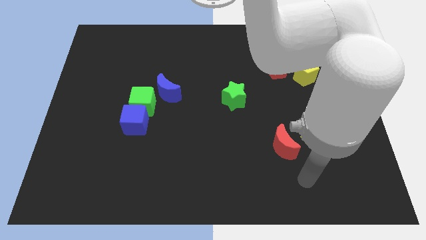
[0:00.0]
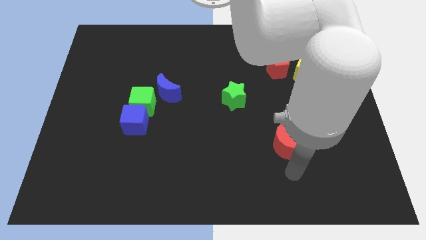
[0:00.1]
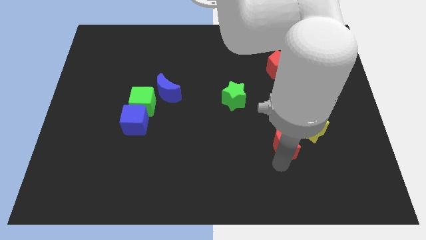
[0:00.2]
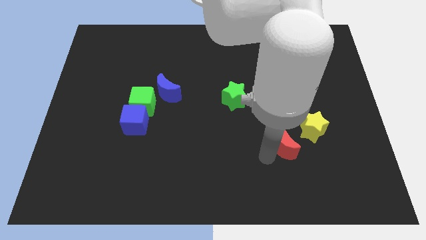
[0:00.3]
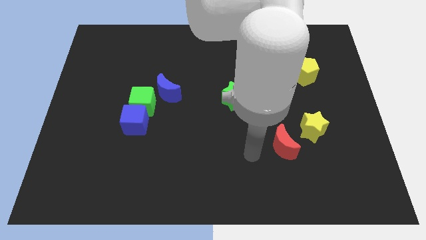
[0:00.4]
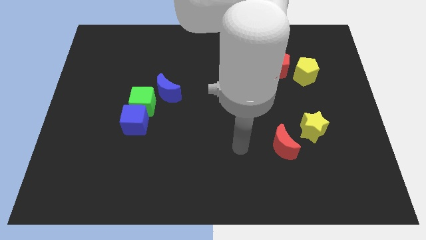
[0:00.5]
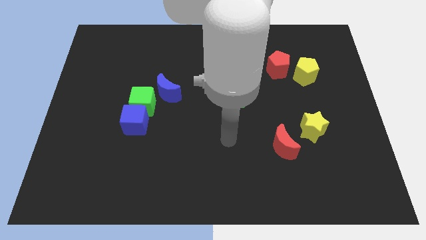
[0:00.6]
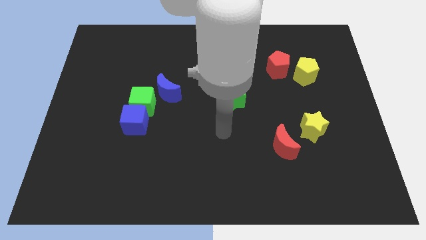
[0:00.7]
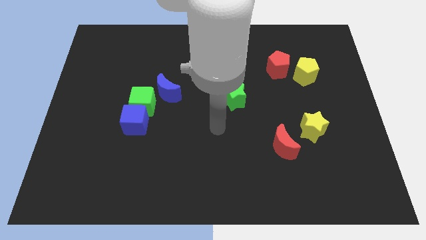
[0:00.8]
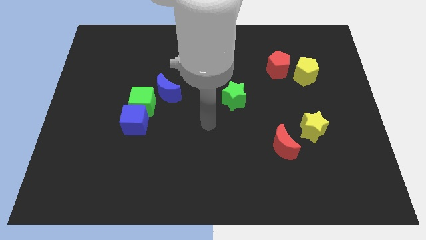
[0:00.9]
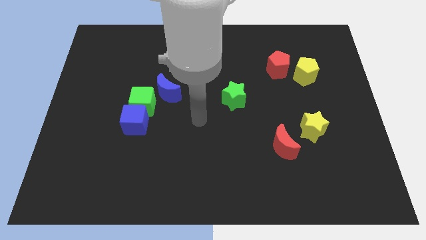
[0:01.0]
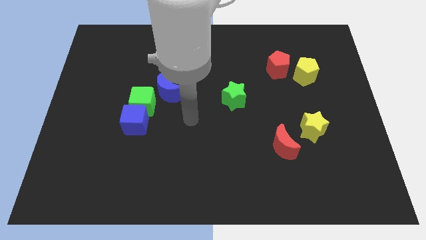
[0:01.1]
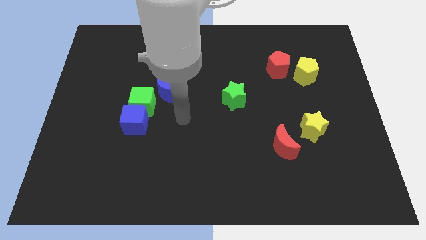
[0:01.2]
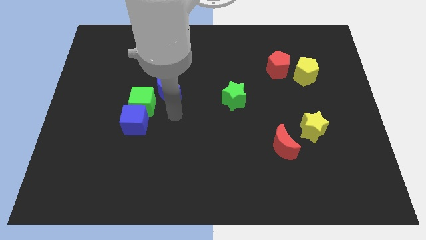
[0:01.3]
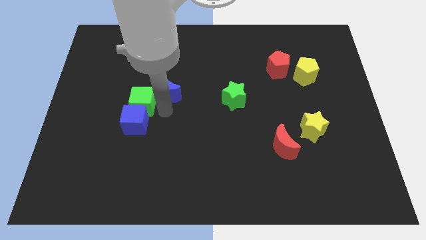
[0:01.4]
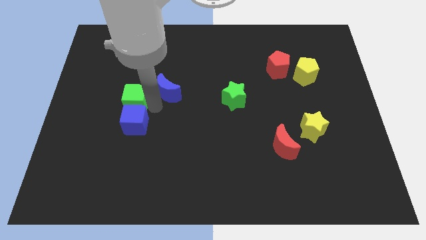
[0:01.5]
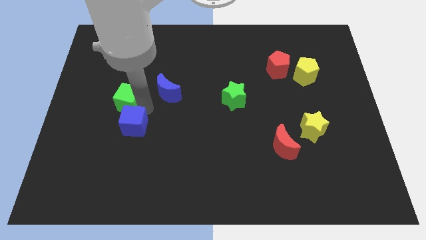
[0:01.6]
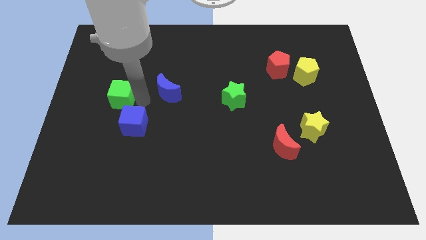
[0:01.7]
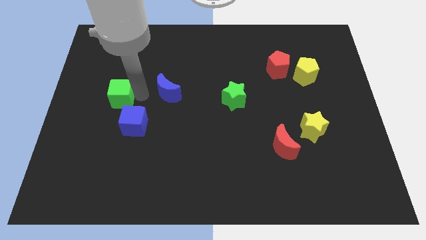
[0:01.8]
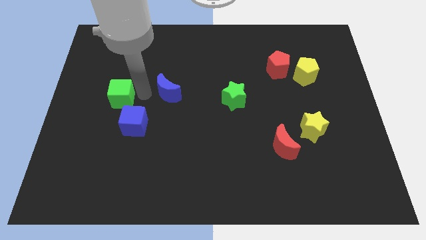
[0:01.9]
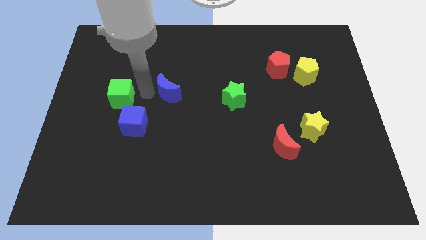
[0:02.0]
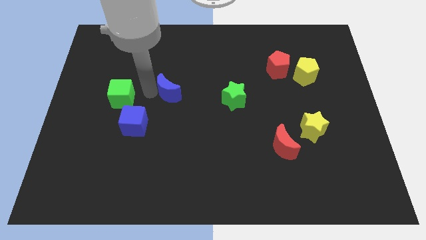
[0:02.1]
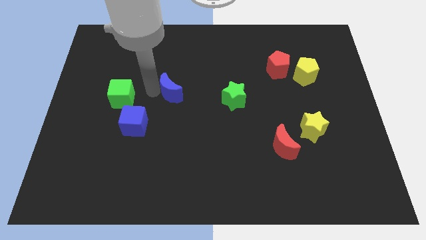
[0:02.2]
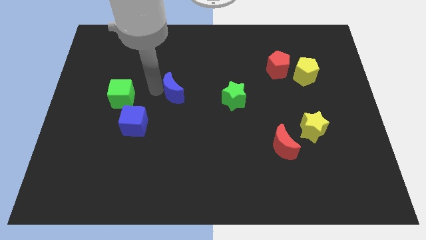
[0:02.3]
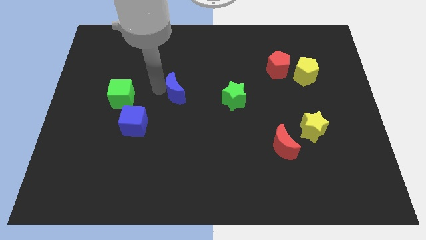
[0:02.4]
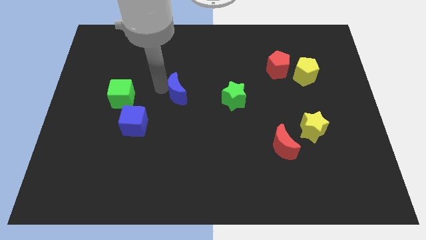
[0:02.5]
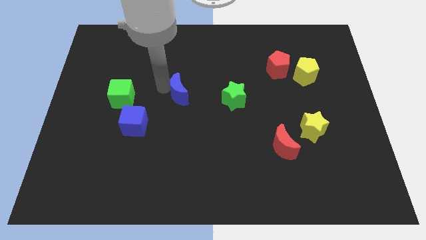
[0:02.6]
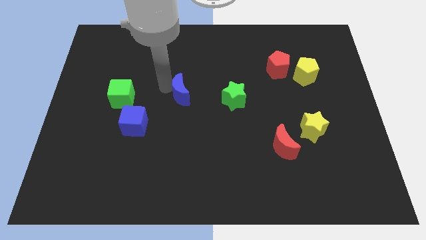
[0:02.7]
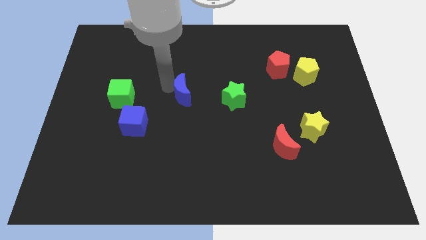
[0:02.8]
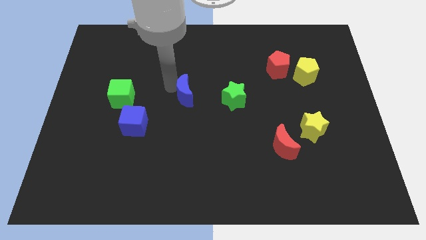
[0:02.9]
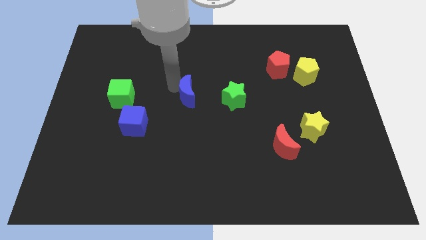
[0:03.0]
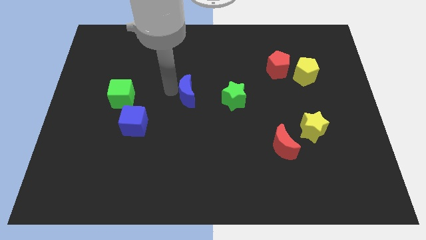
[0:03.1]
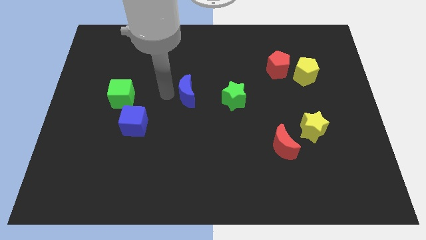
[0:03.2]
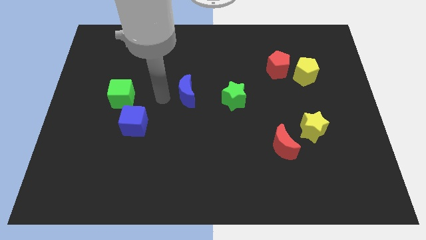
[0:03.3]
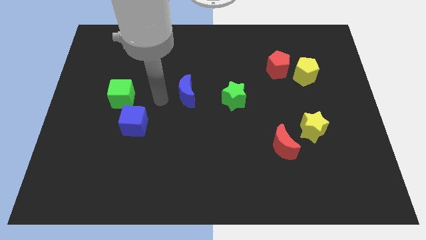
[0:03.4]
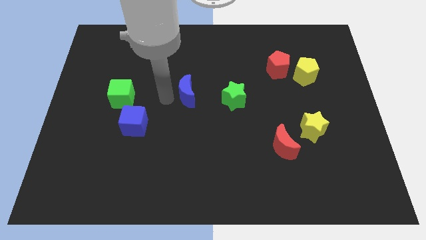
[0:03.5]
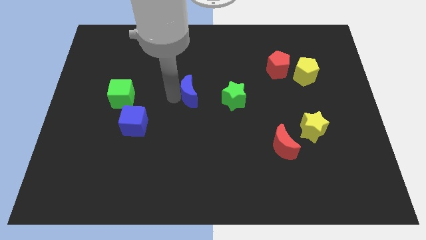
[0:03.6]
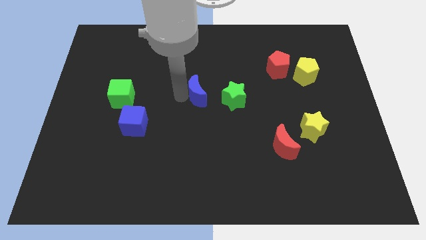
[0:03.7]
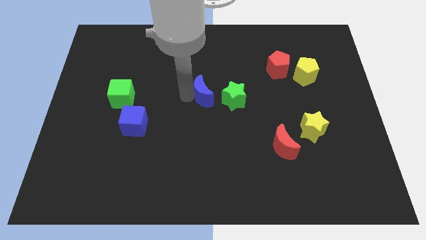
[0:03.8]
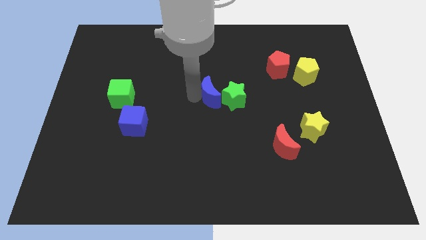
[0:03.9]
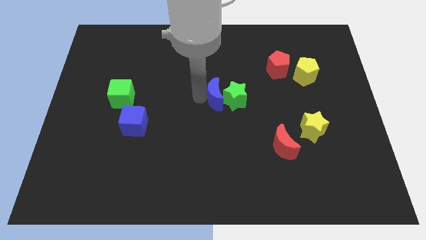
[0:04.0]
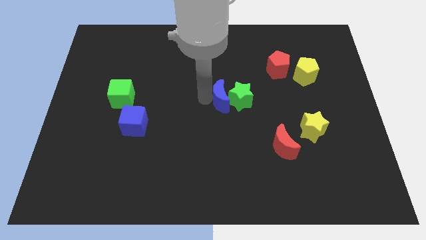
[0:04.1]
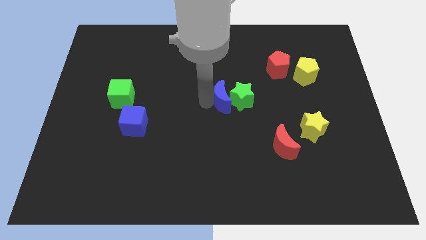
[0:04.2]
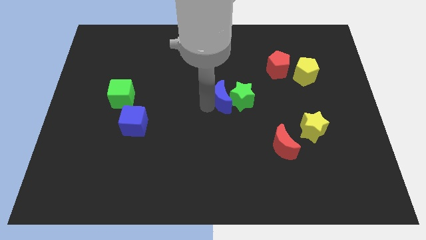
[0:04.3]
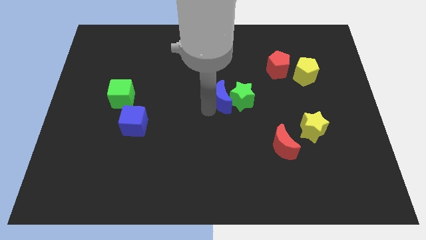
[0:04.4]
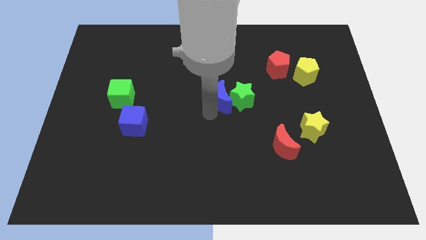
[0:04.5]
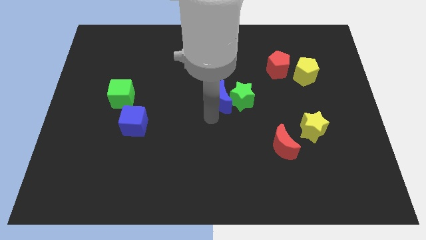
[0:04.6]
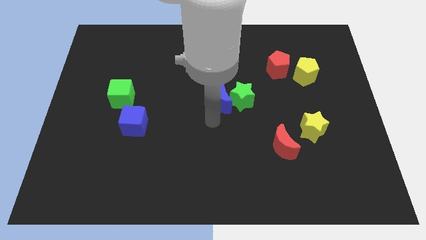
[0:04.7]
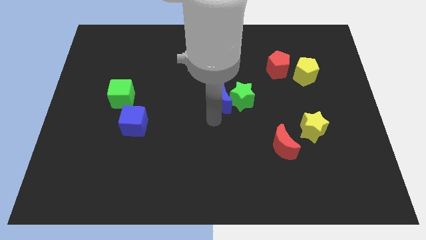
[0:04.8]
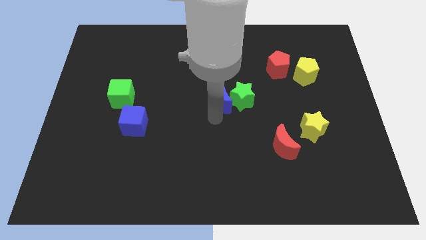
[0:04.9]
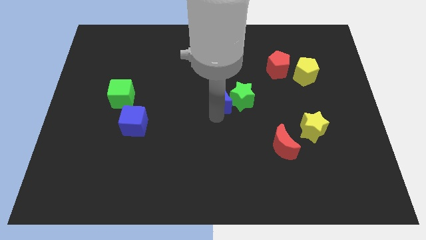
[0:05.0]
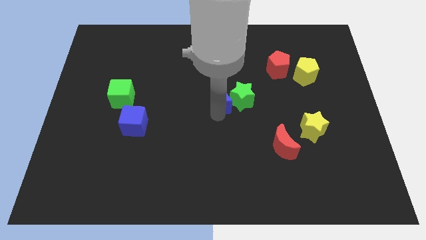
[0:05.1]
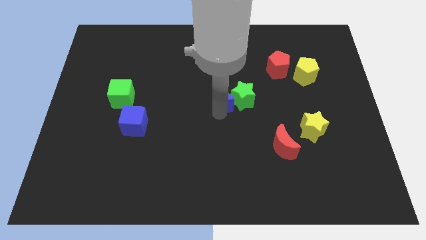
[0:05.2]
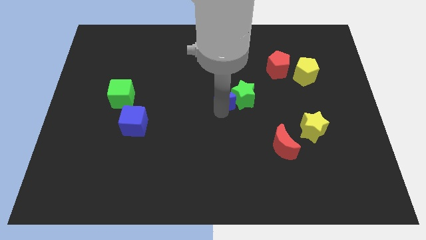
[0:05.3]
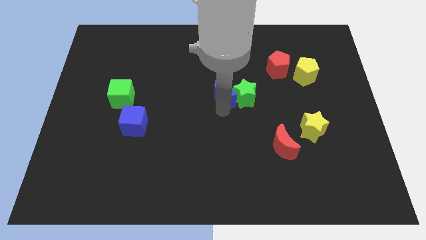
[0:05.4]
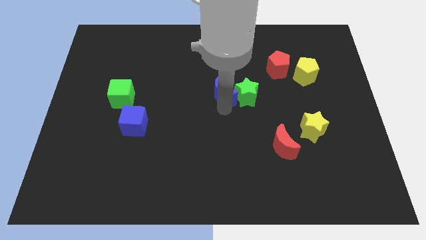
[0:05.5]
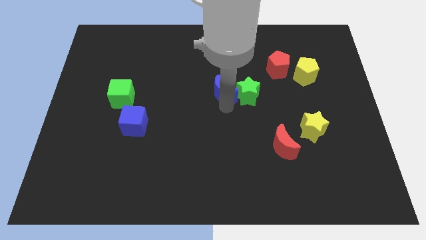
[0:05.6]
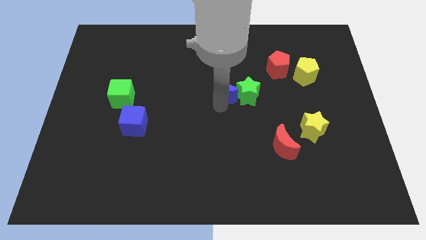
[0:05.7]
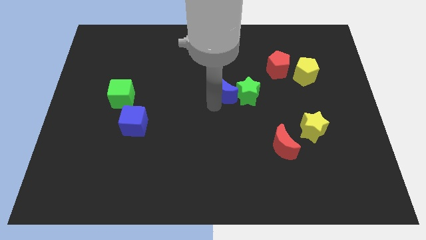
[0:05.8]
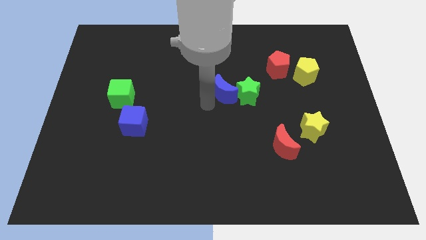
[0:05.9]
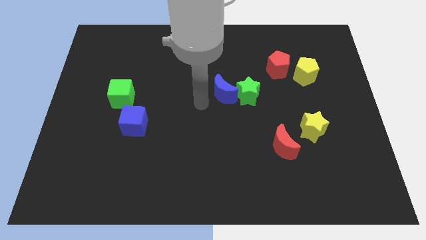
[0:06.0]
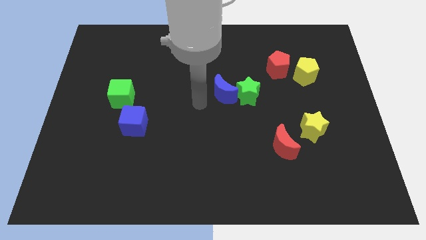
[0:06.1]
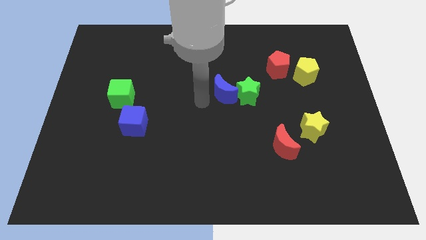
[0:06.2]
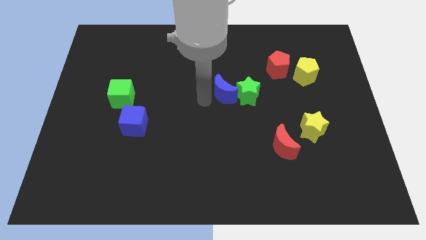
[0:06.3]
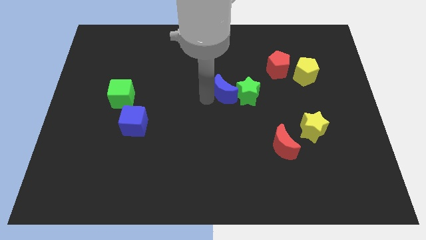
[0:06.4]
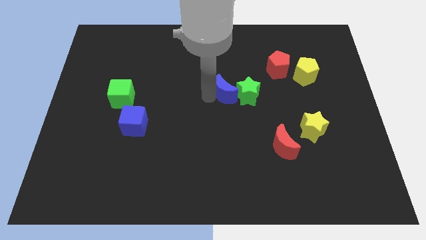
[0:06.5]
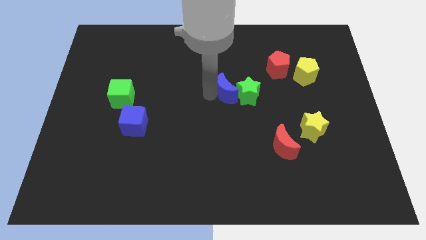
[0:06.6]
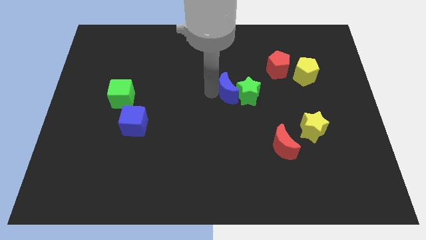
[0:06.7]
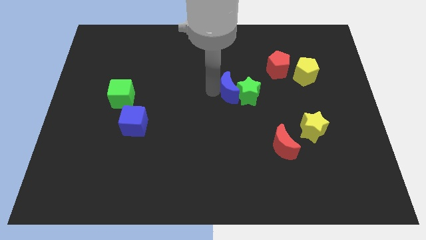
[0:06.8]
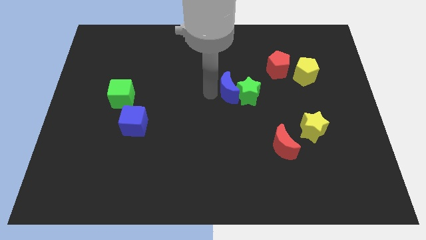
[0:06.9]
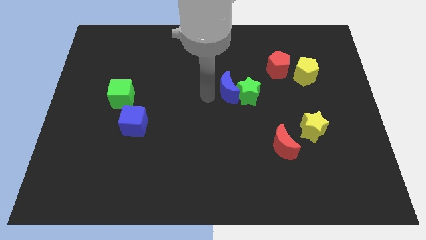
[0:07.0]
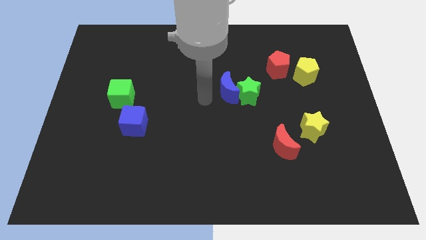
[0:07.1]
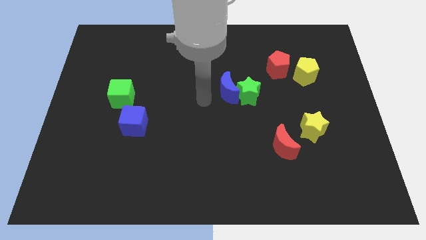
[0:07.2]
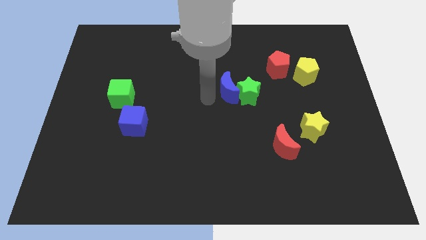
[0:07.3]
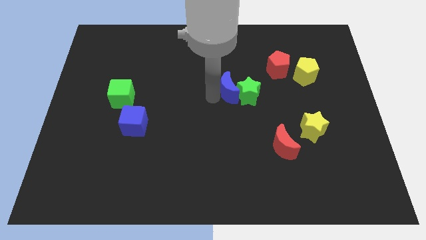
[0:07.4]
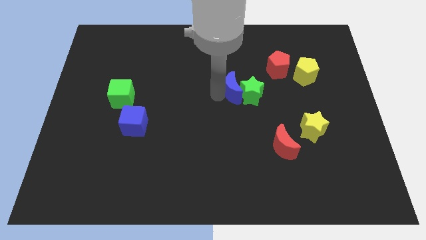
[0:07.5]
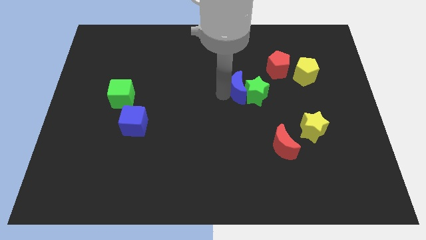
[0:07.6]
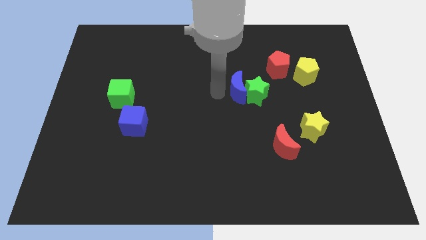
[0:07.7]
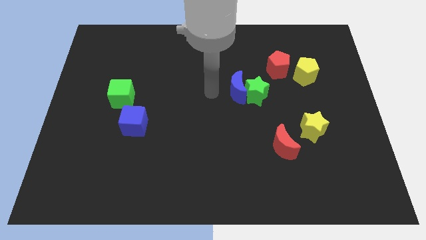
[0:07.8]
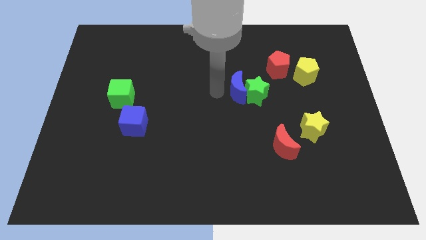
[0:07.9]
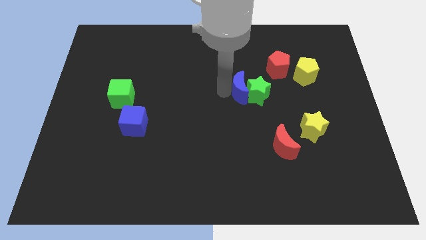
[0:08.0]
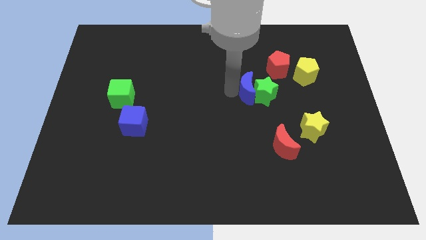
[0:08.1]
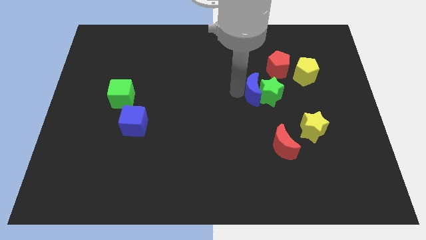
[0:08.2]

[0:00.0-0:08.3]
move the blue moon to the right
